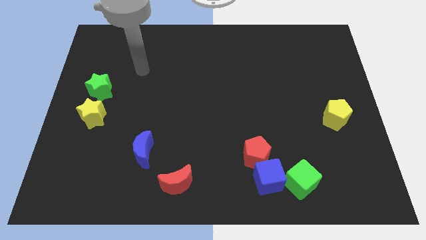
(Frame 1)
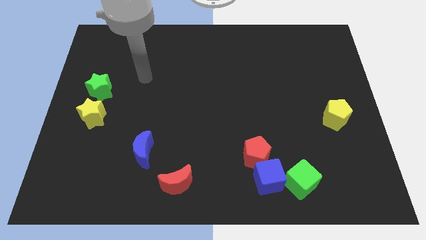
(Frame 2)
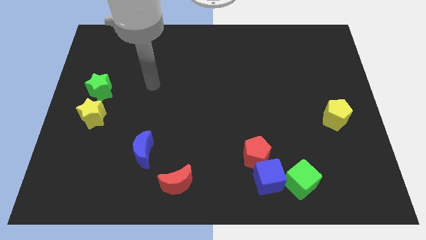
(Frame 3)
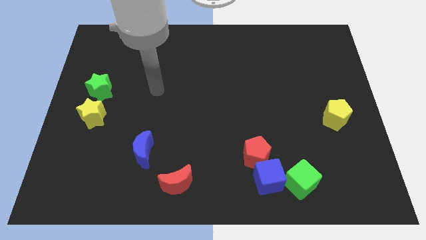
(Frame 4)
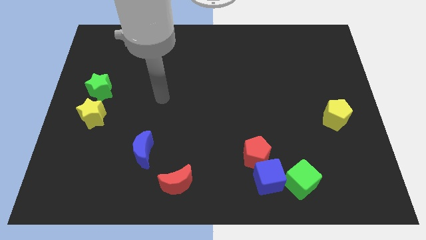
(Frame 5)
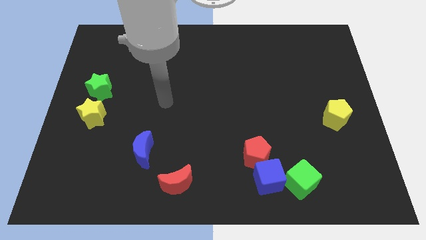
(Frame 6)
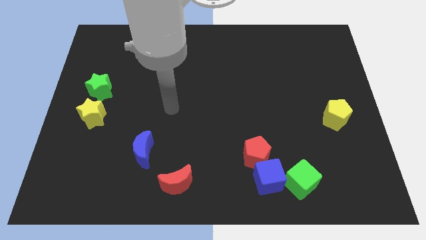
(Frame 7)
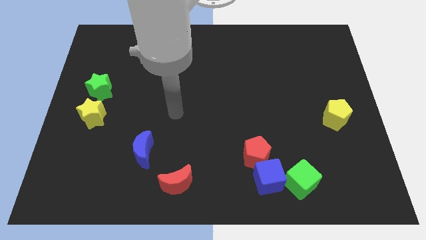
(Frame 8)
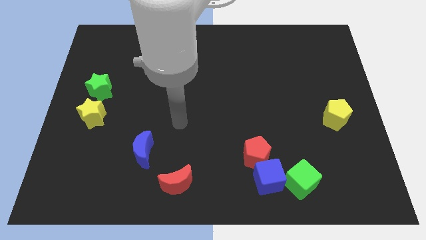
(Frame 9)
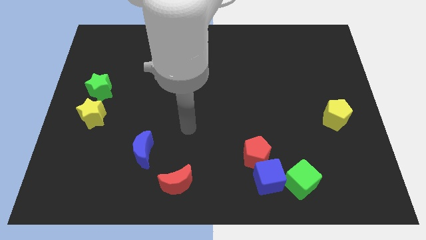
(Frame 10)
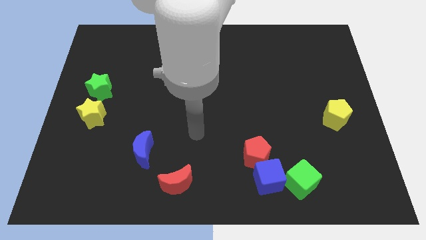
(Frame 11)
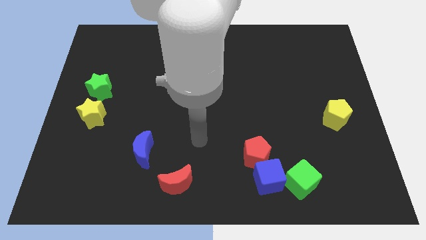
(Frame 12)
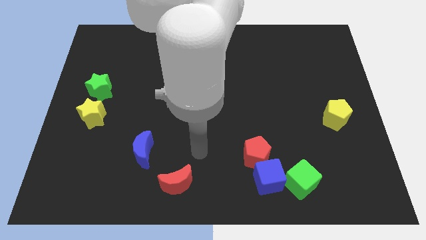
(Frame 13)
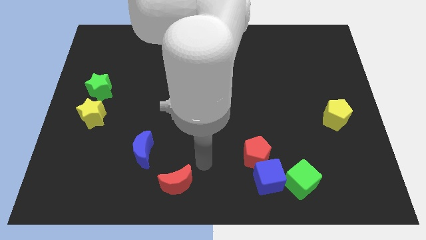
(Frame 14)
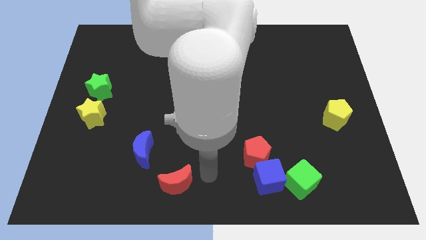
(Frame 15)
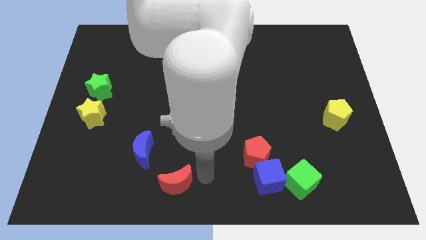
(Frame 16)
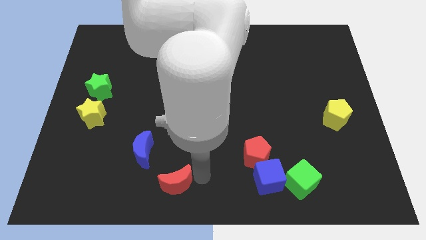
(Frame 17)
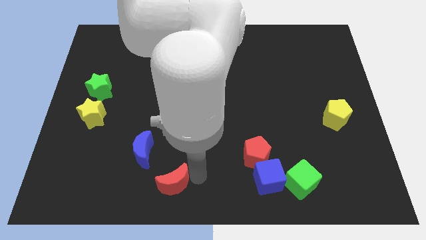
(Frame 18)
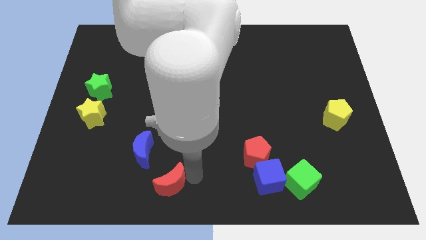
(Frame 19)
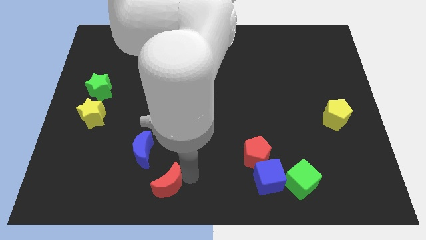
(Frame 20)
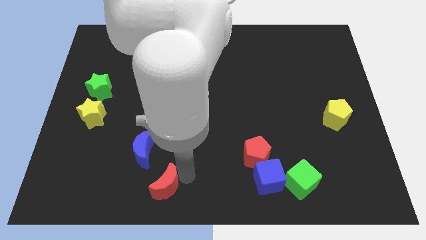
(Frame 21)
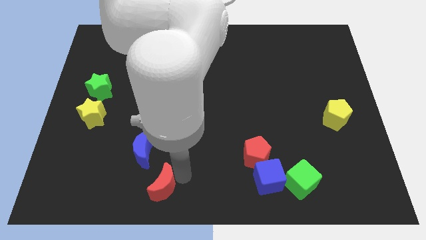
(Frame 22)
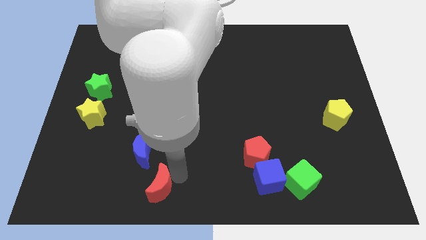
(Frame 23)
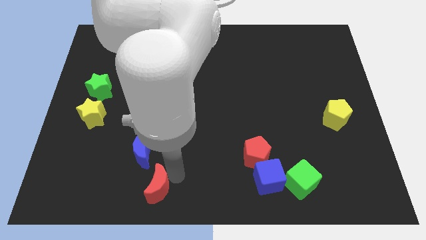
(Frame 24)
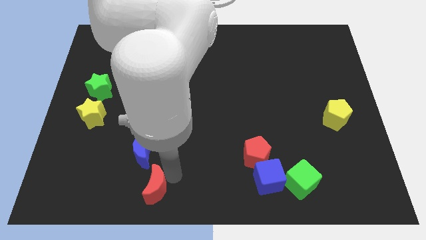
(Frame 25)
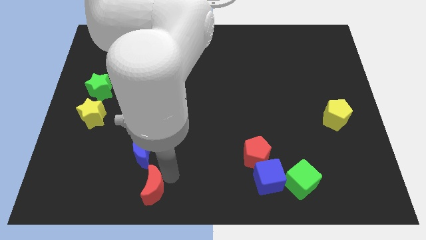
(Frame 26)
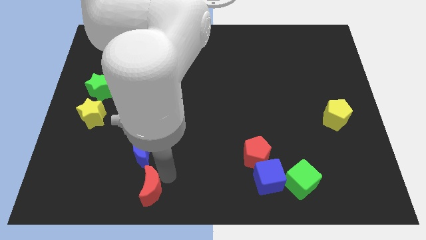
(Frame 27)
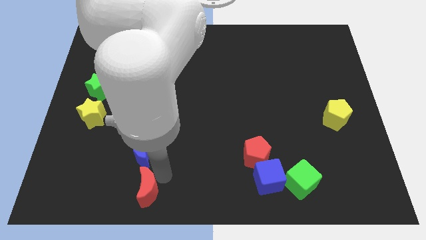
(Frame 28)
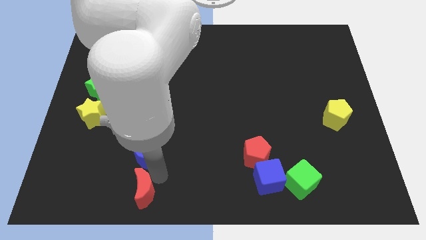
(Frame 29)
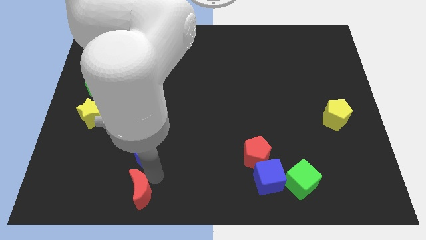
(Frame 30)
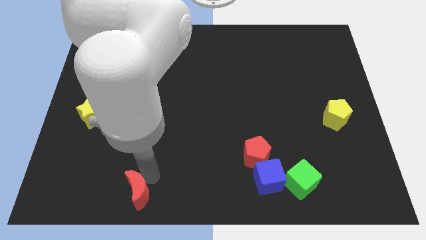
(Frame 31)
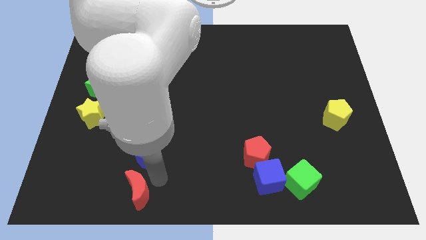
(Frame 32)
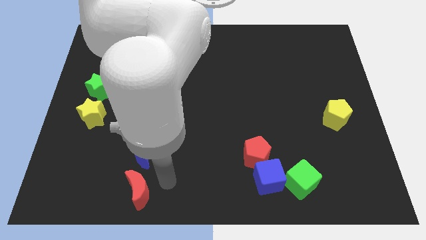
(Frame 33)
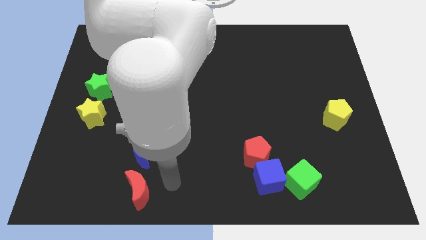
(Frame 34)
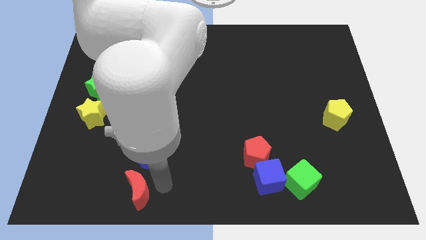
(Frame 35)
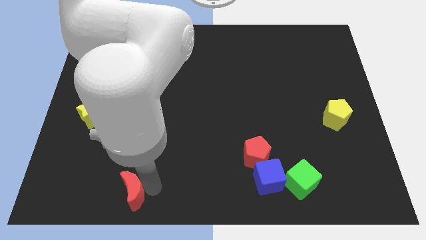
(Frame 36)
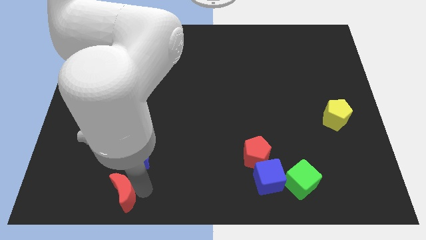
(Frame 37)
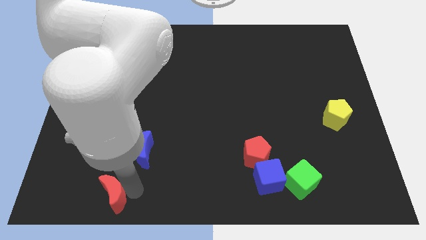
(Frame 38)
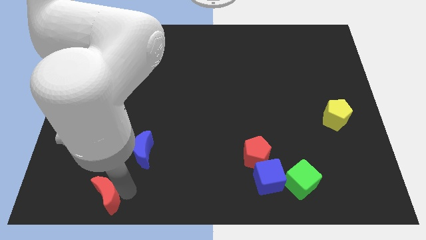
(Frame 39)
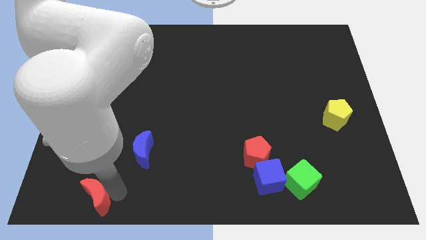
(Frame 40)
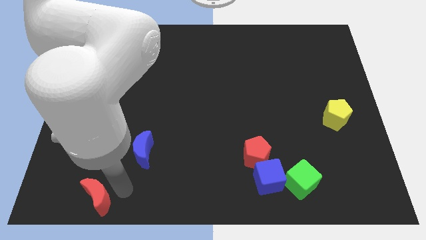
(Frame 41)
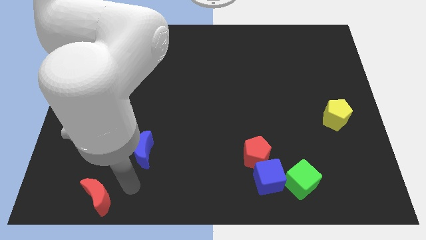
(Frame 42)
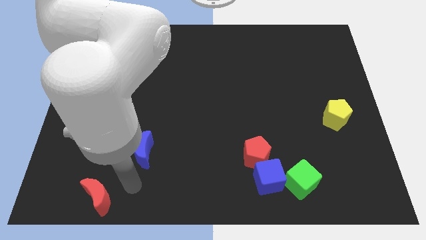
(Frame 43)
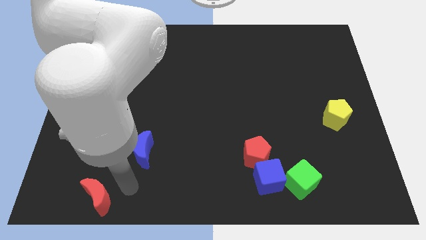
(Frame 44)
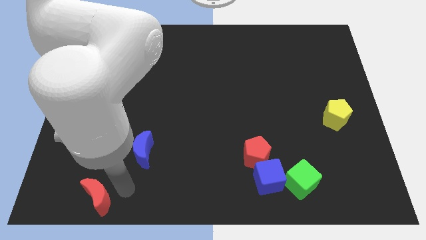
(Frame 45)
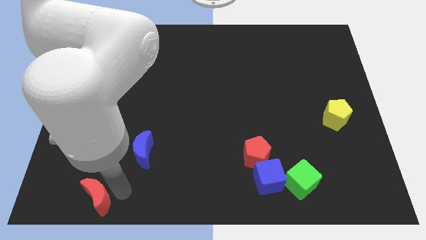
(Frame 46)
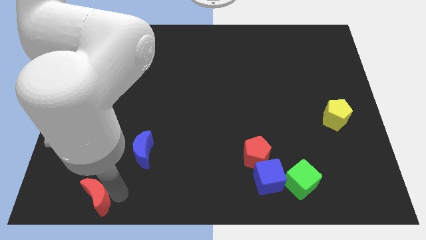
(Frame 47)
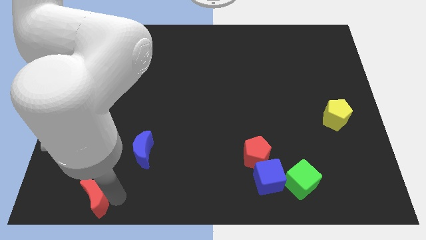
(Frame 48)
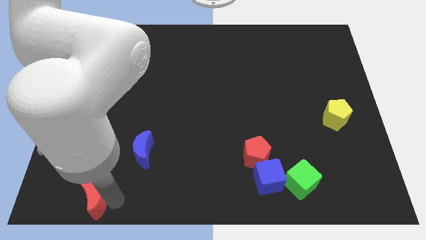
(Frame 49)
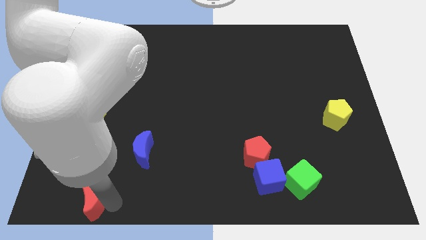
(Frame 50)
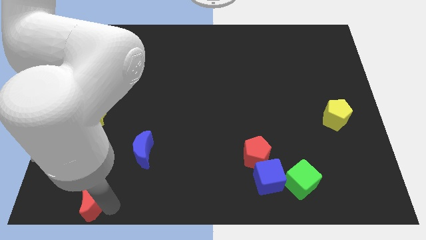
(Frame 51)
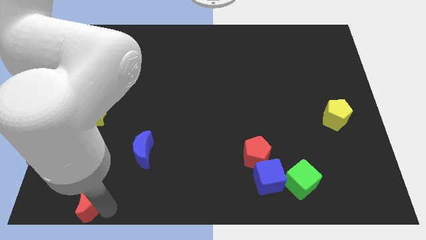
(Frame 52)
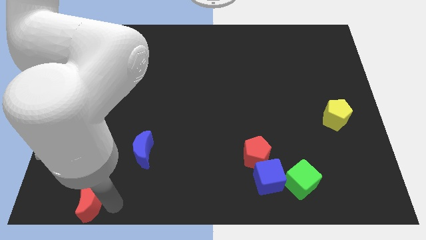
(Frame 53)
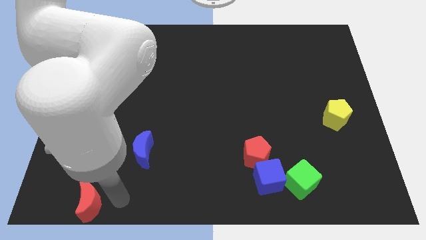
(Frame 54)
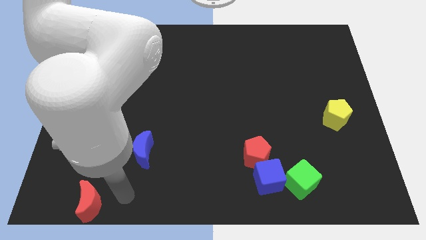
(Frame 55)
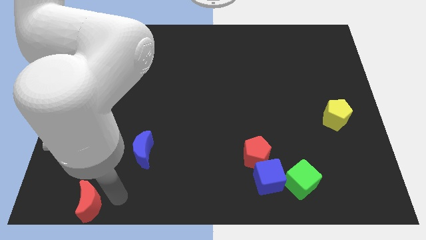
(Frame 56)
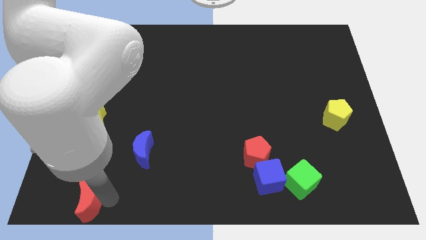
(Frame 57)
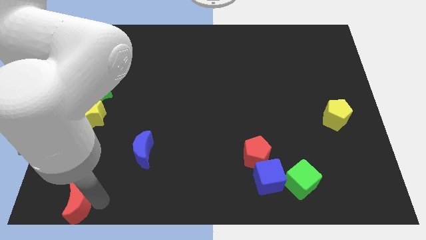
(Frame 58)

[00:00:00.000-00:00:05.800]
slide the red moon to the bottom left corner
